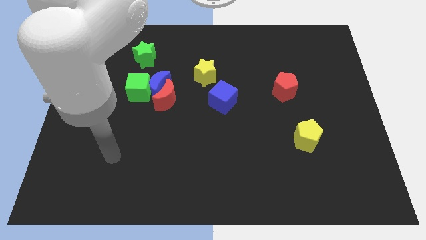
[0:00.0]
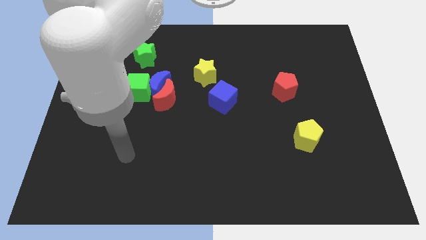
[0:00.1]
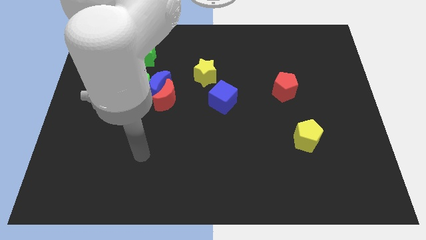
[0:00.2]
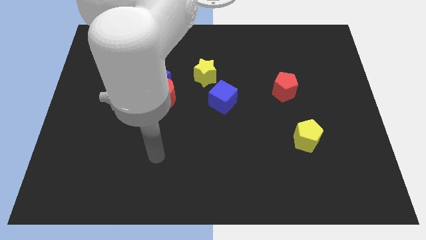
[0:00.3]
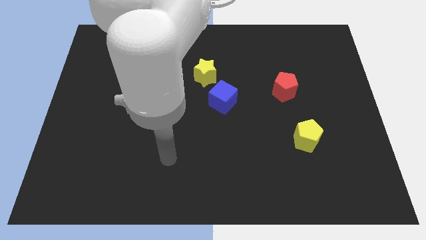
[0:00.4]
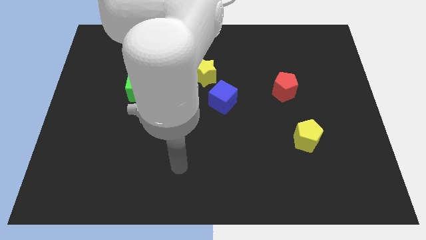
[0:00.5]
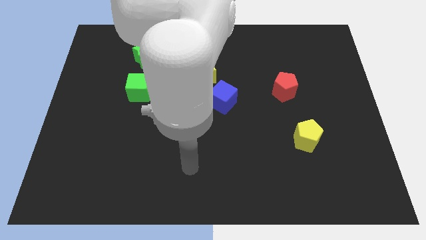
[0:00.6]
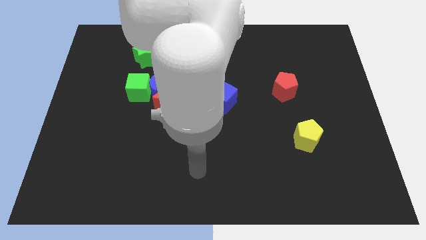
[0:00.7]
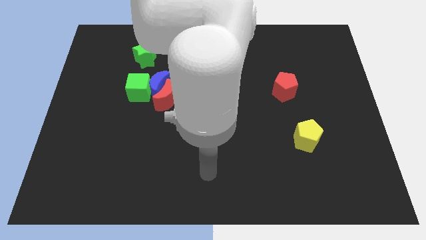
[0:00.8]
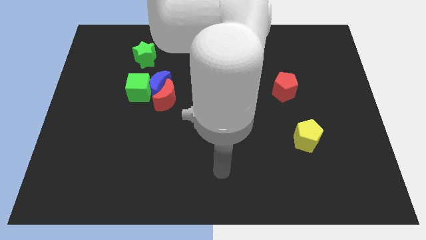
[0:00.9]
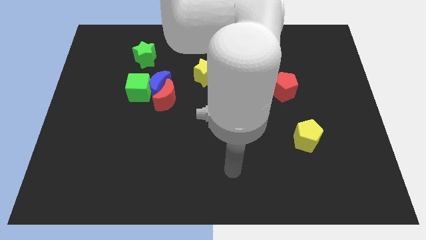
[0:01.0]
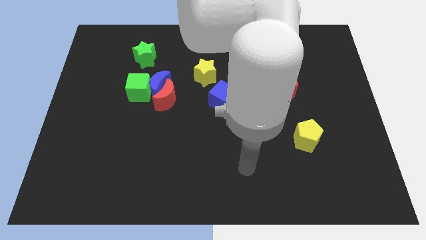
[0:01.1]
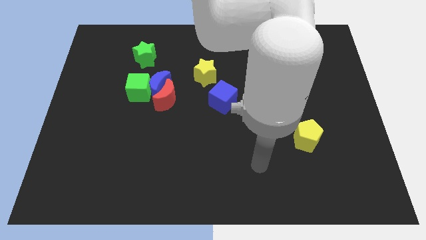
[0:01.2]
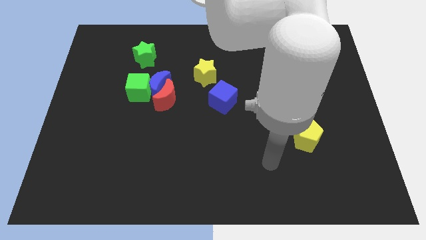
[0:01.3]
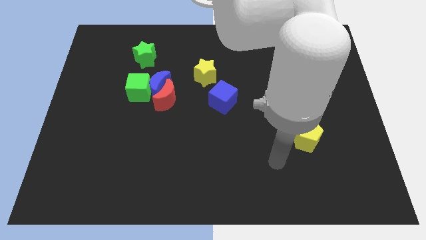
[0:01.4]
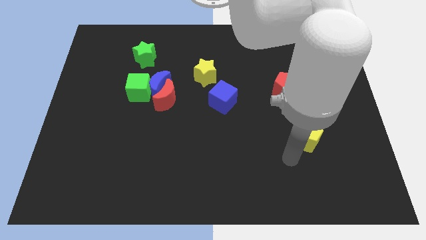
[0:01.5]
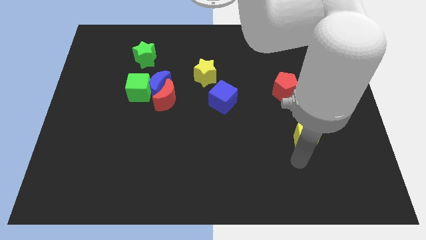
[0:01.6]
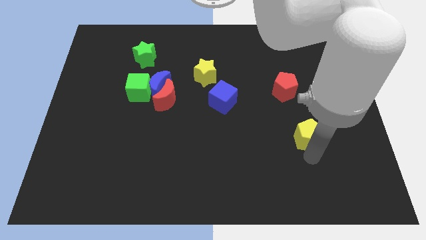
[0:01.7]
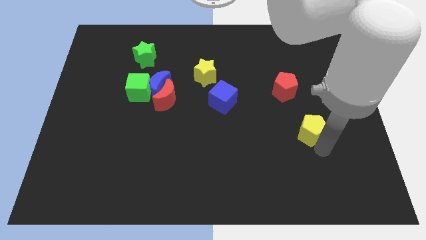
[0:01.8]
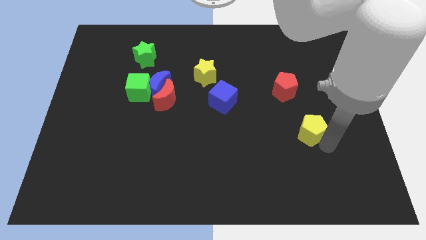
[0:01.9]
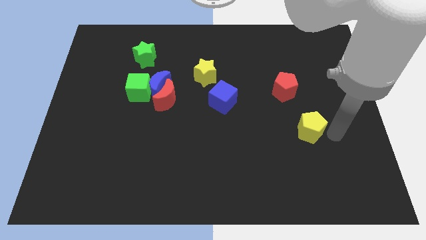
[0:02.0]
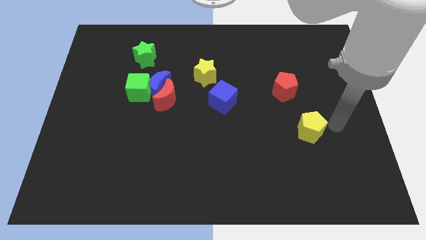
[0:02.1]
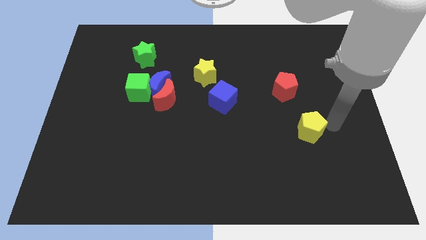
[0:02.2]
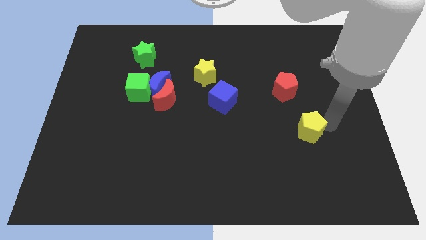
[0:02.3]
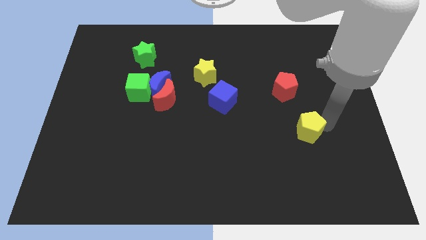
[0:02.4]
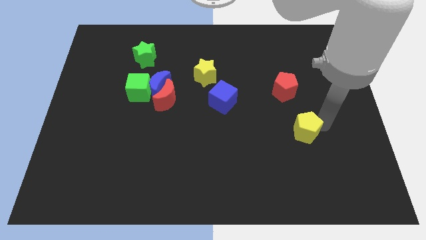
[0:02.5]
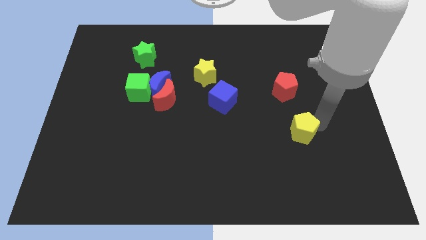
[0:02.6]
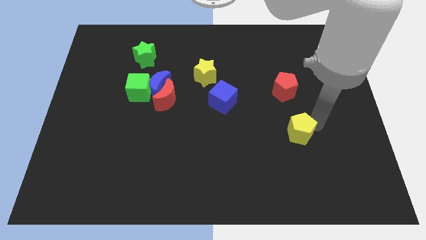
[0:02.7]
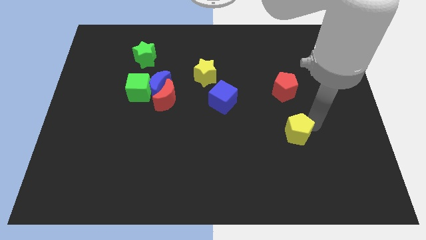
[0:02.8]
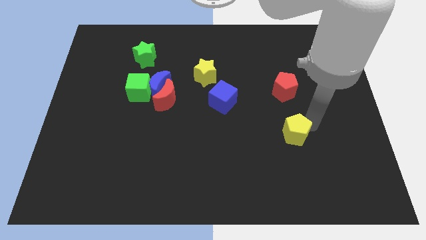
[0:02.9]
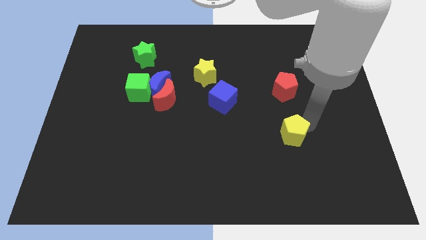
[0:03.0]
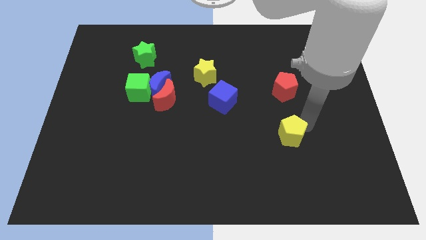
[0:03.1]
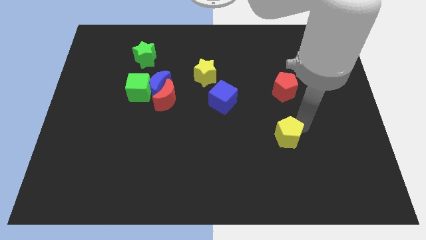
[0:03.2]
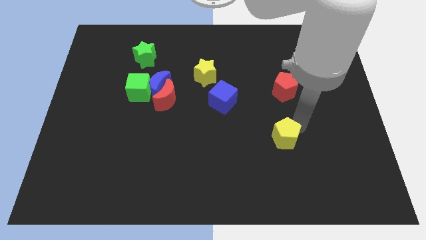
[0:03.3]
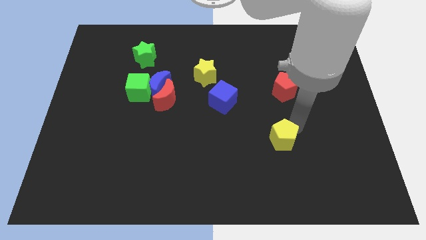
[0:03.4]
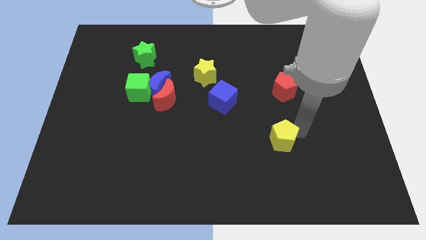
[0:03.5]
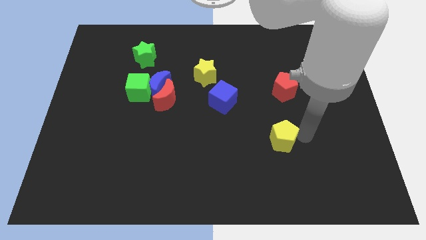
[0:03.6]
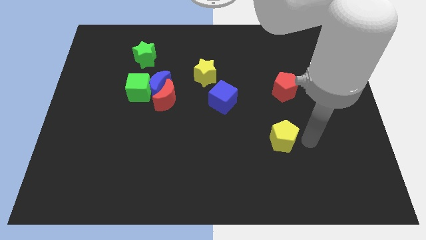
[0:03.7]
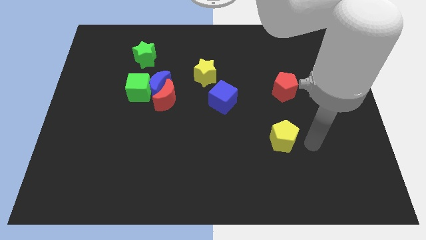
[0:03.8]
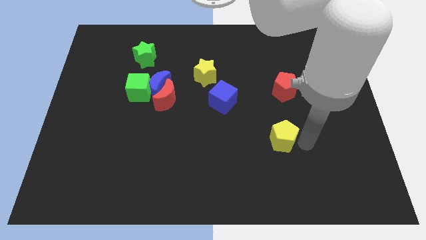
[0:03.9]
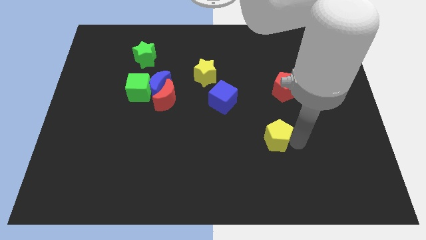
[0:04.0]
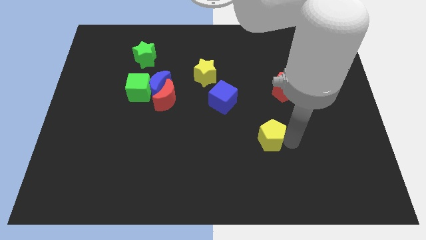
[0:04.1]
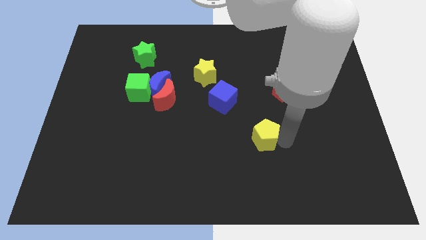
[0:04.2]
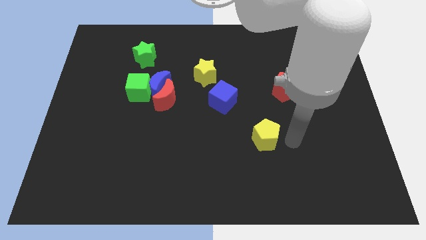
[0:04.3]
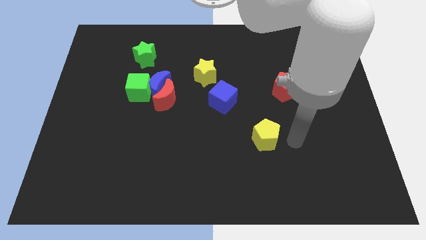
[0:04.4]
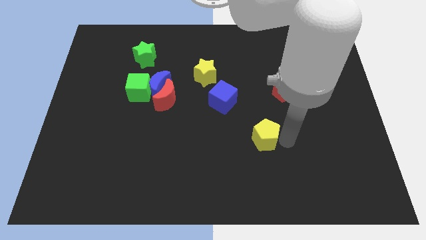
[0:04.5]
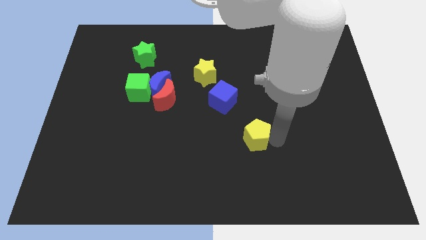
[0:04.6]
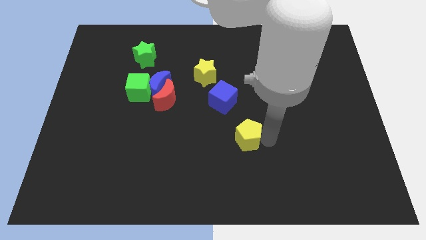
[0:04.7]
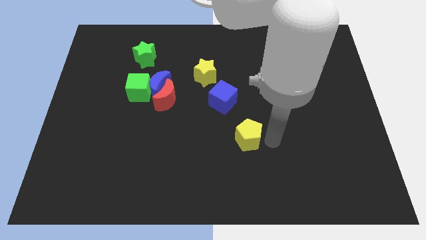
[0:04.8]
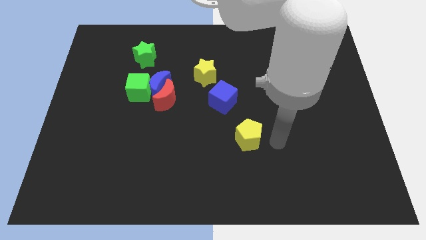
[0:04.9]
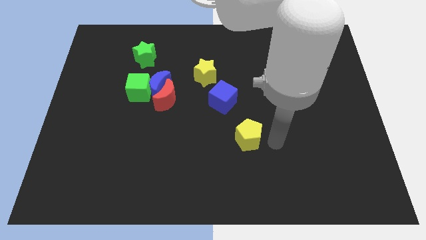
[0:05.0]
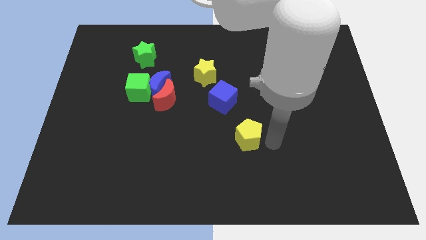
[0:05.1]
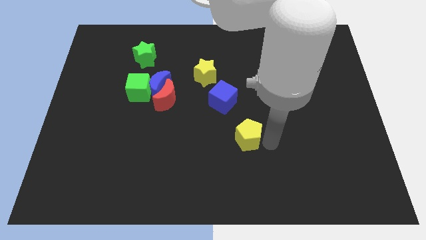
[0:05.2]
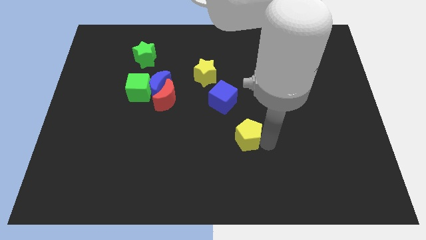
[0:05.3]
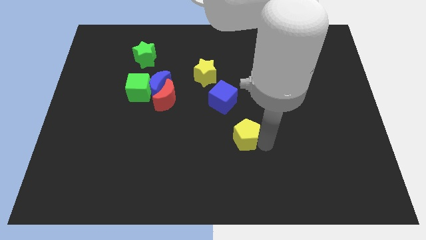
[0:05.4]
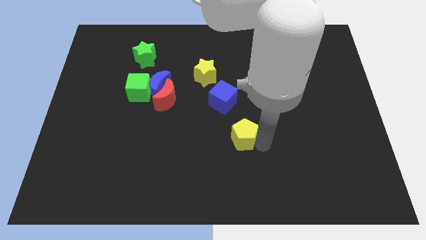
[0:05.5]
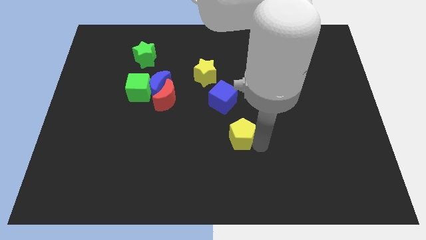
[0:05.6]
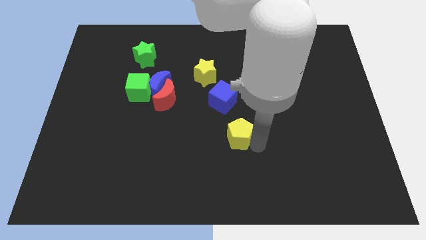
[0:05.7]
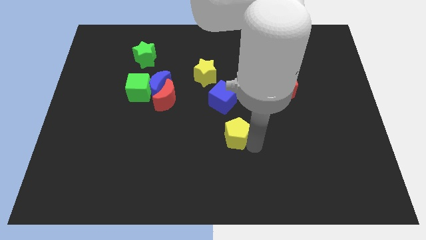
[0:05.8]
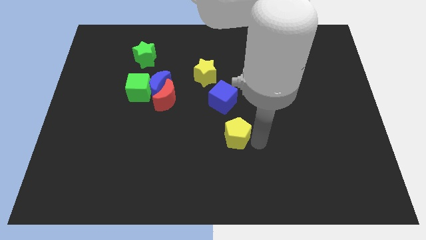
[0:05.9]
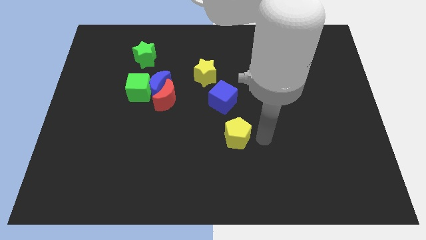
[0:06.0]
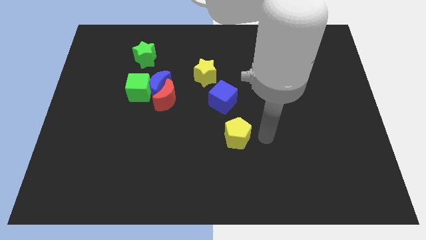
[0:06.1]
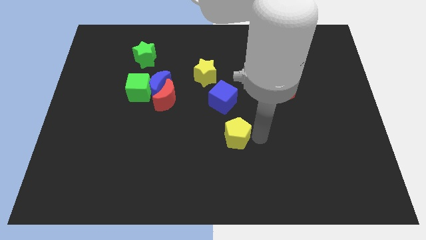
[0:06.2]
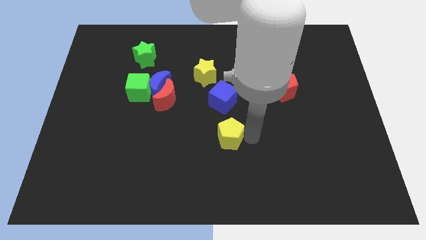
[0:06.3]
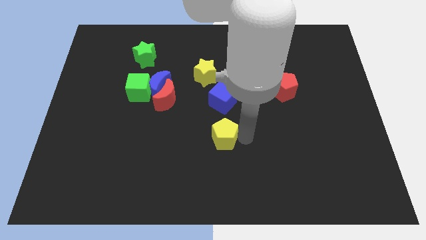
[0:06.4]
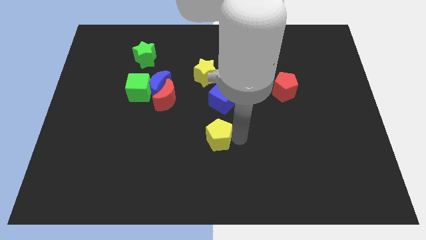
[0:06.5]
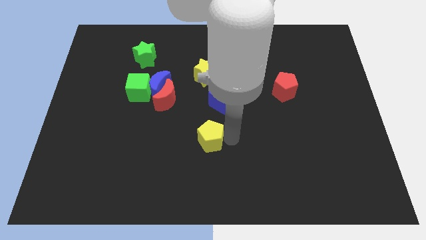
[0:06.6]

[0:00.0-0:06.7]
push the yellow pentagon to the left

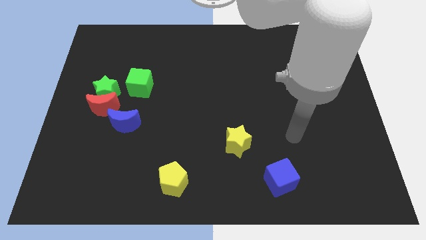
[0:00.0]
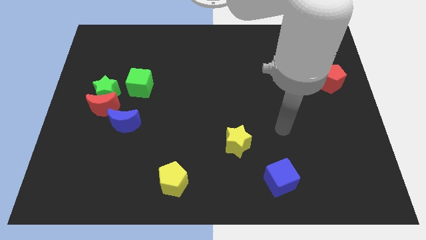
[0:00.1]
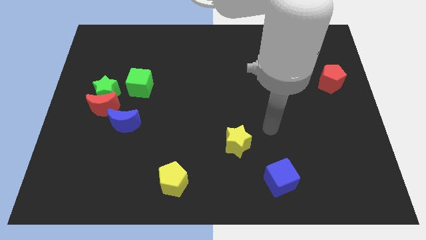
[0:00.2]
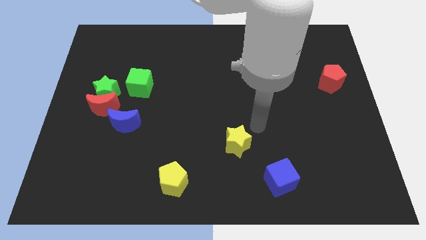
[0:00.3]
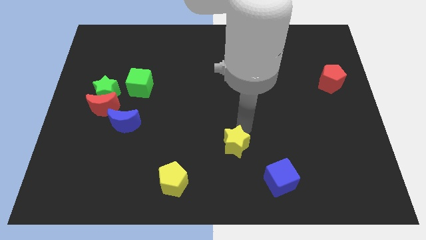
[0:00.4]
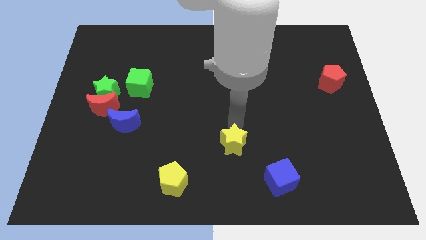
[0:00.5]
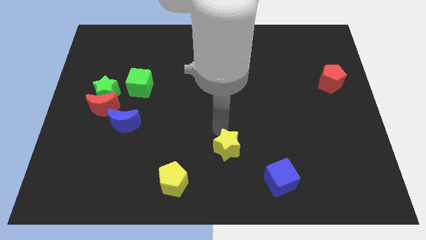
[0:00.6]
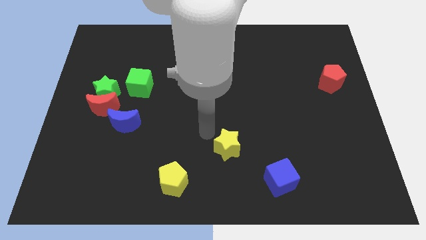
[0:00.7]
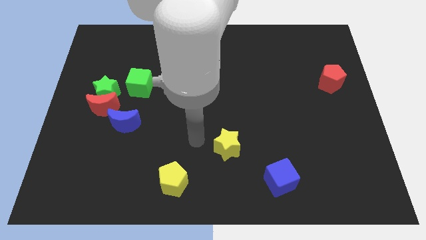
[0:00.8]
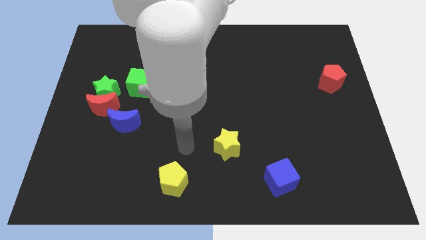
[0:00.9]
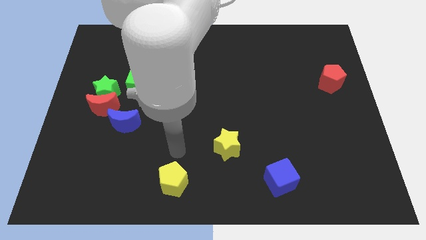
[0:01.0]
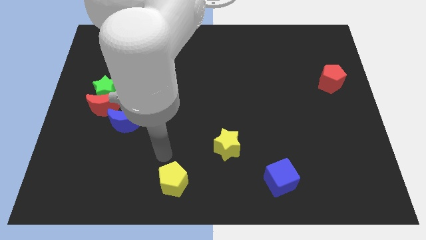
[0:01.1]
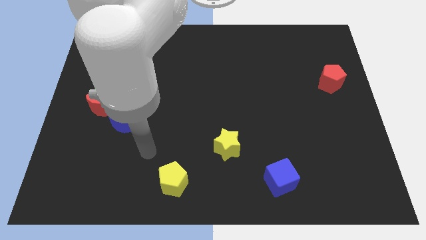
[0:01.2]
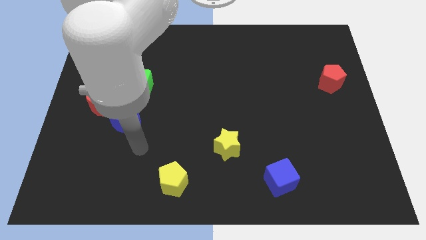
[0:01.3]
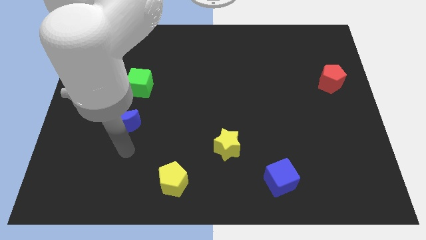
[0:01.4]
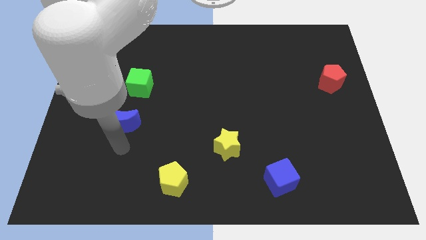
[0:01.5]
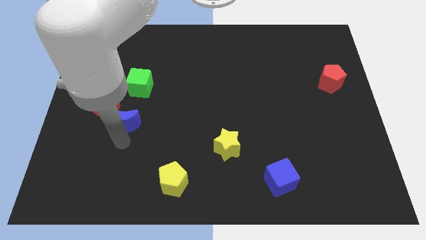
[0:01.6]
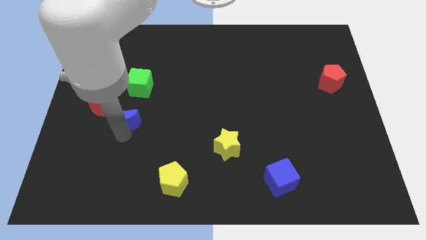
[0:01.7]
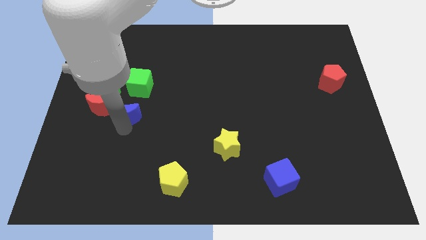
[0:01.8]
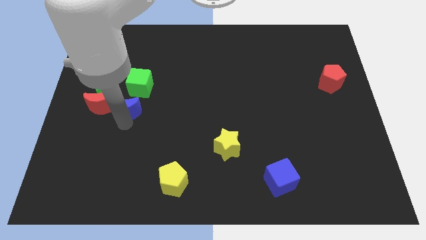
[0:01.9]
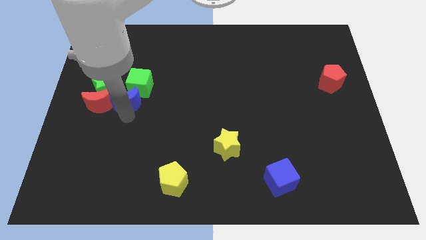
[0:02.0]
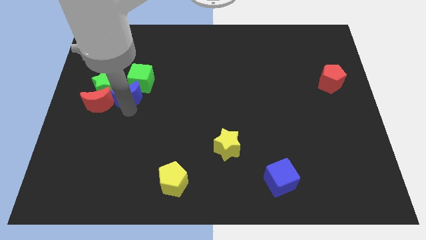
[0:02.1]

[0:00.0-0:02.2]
move the blue moon slightly upwards
